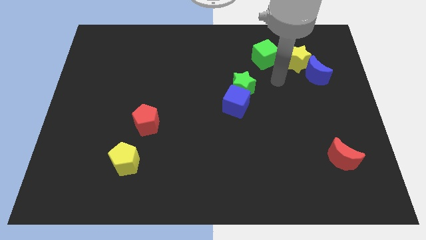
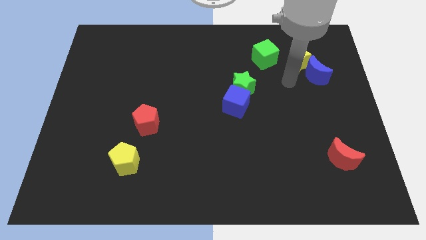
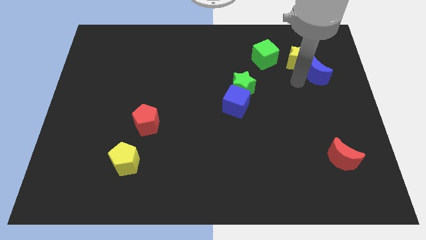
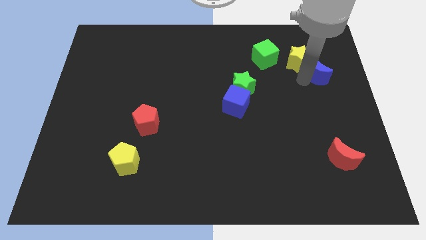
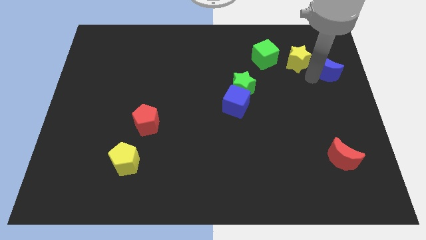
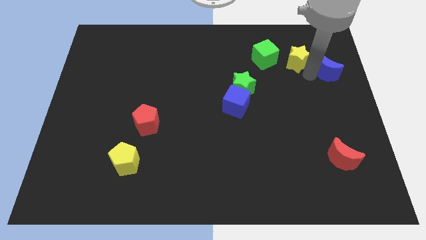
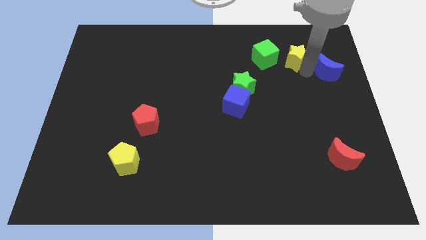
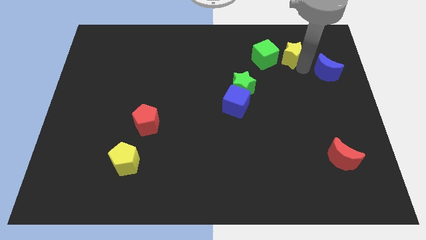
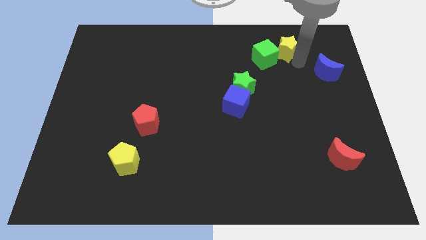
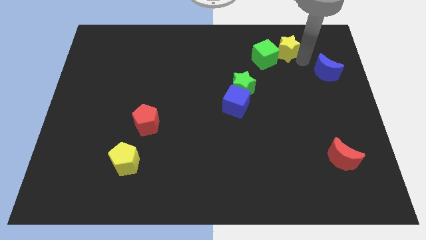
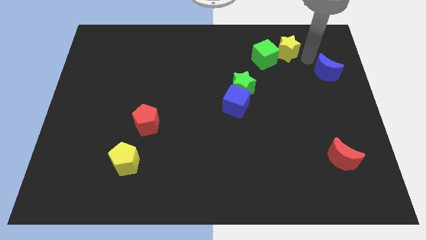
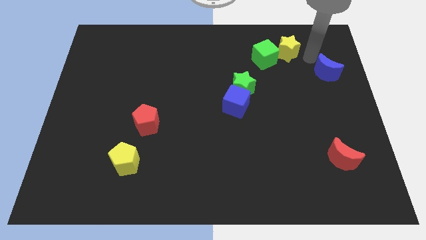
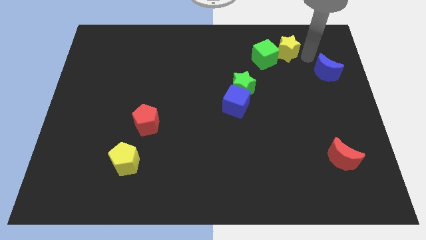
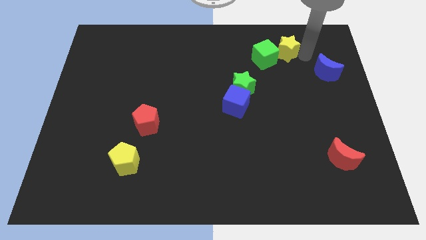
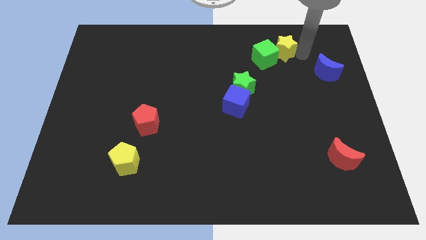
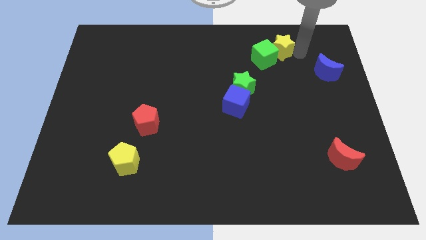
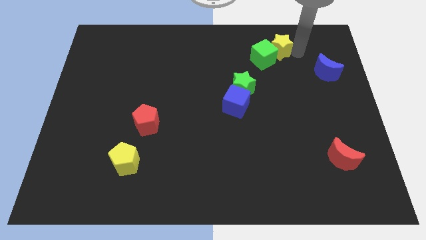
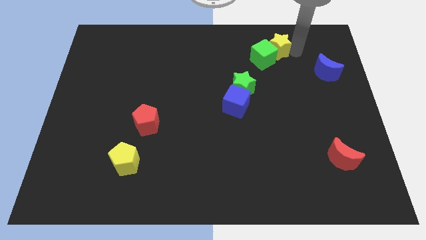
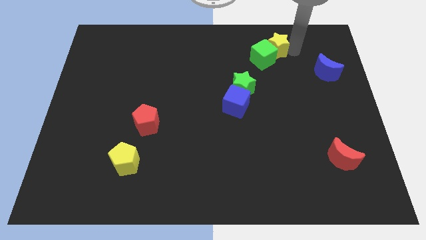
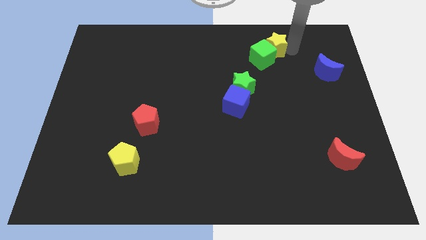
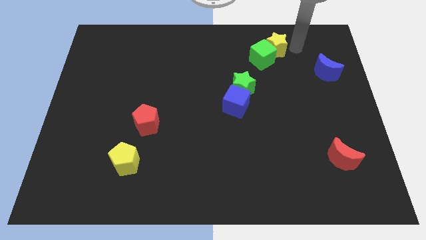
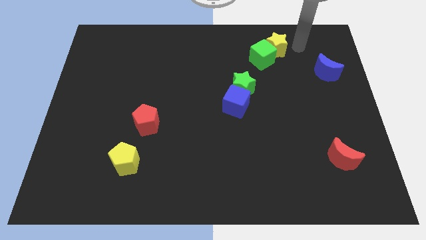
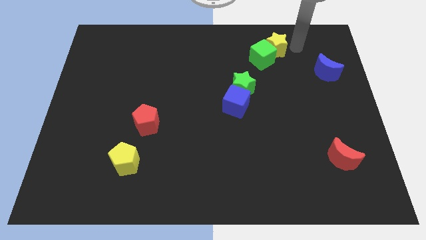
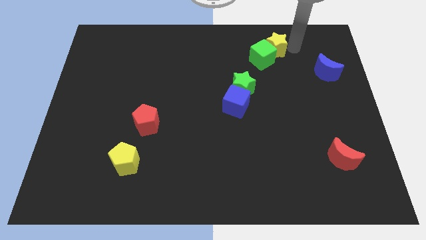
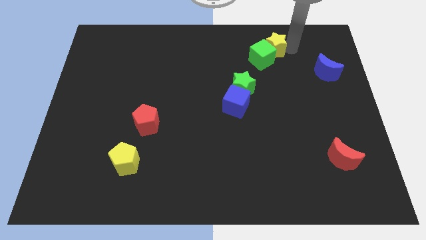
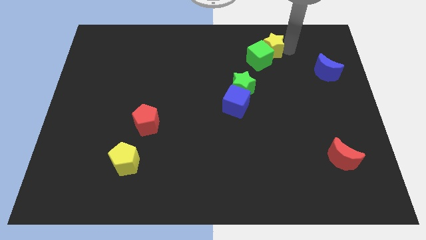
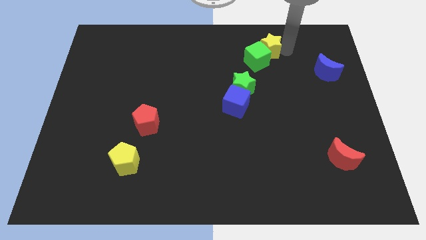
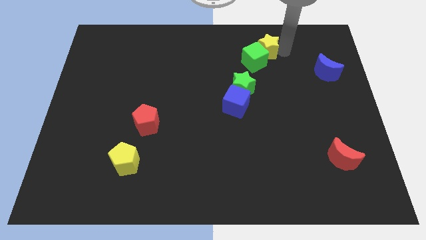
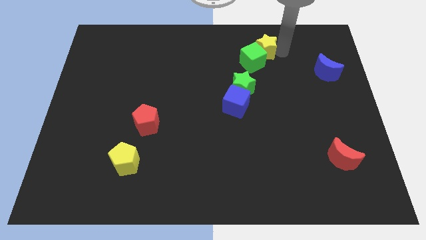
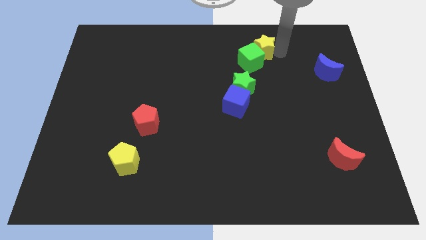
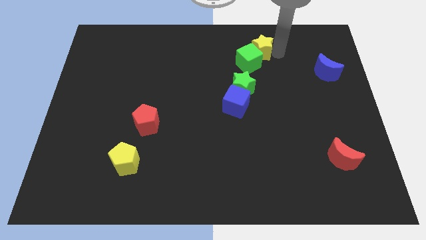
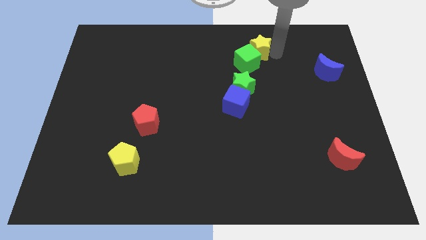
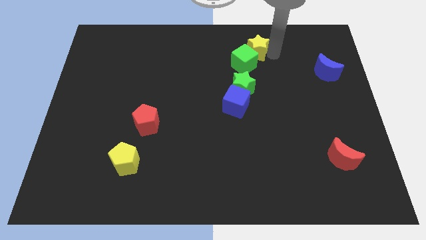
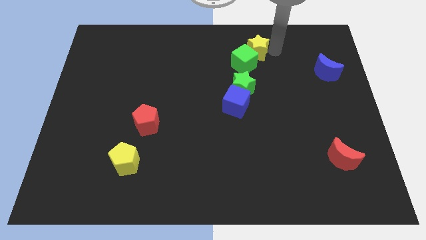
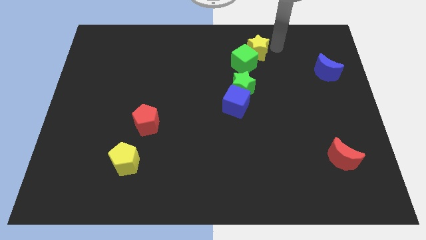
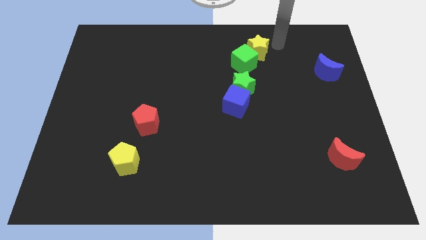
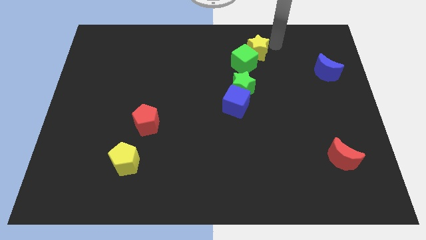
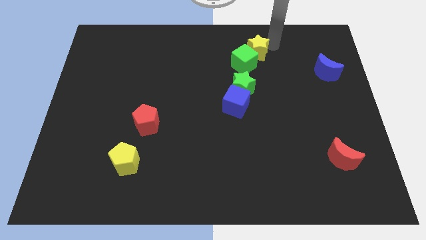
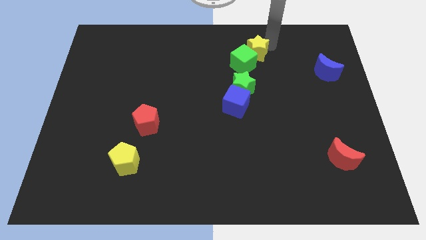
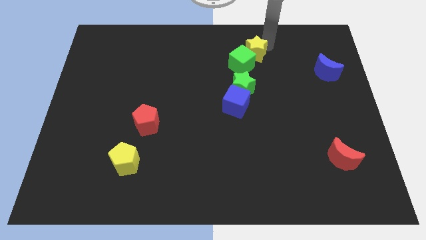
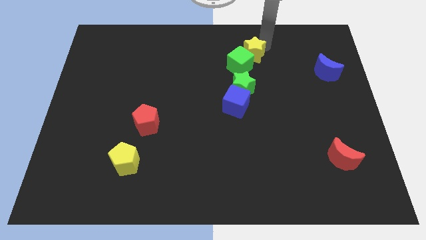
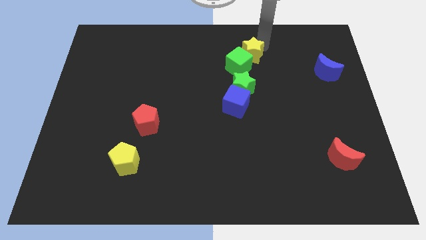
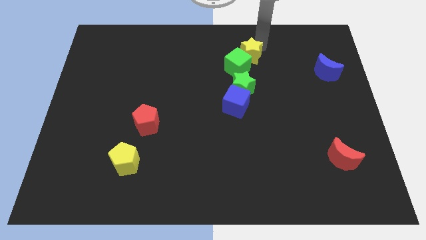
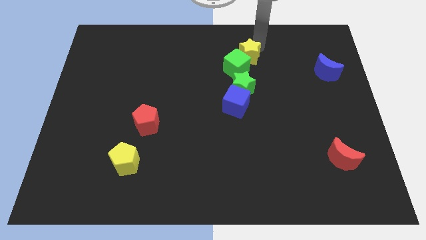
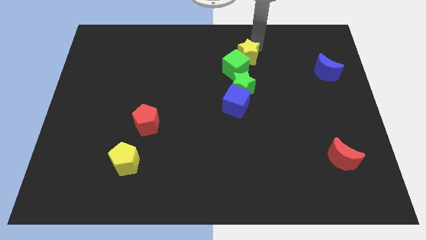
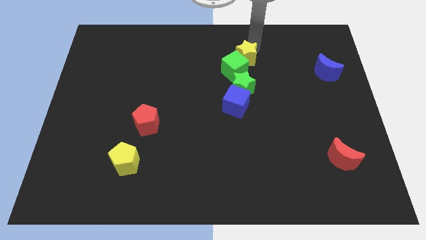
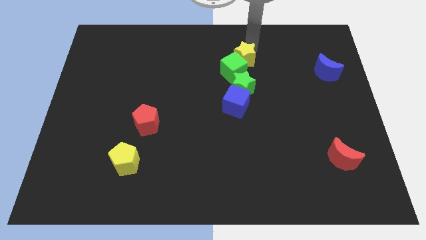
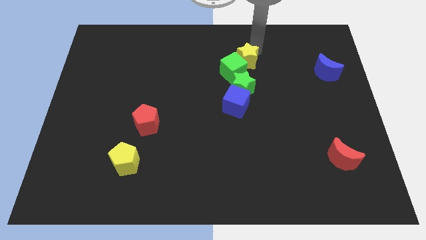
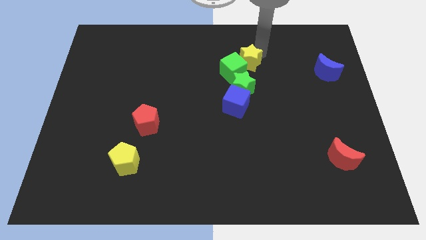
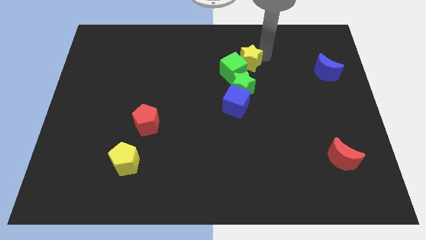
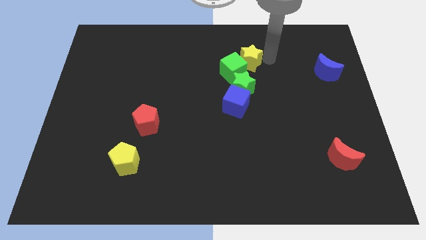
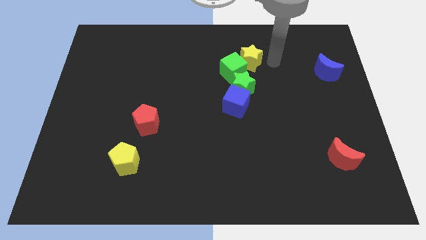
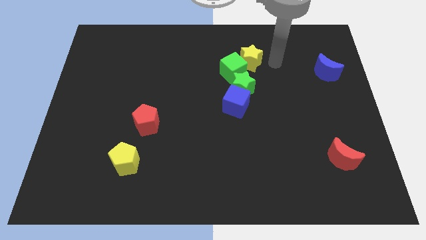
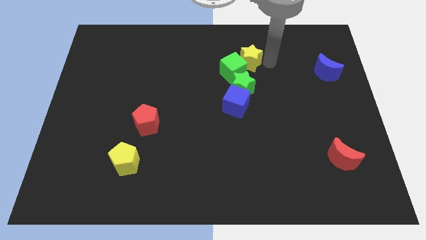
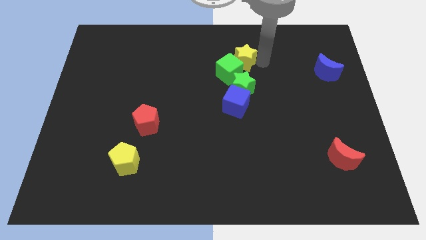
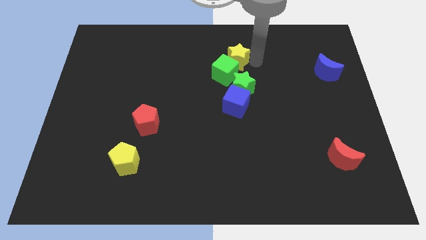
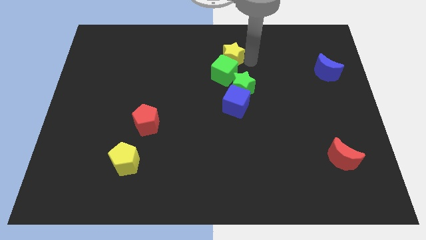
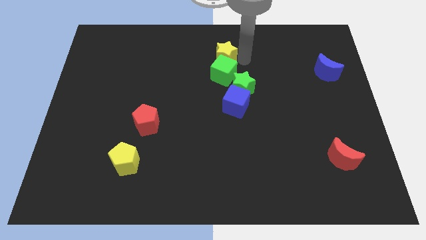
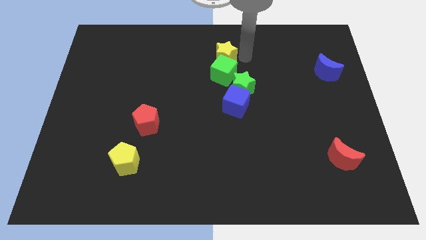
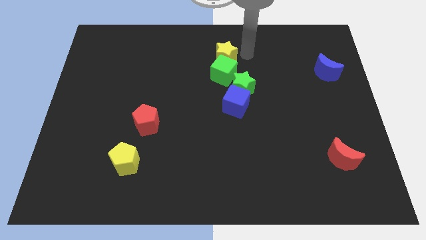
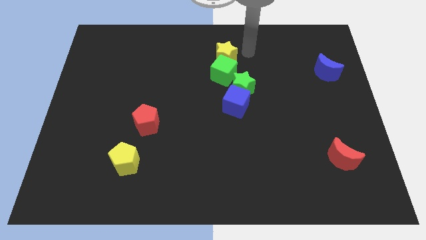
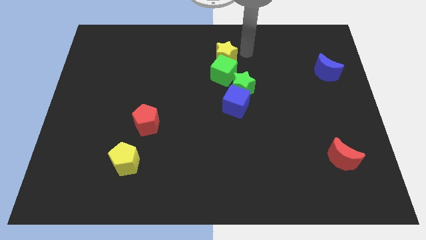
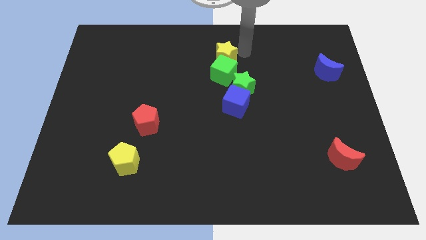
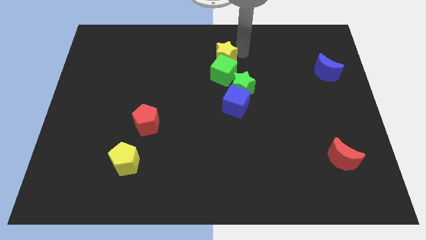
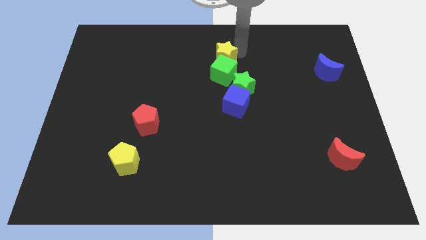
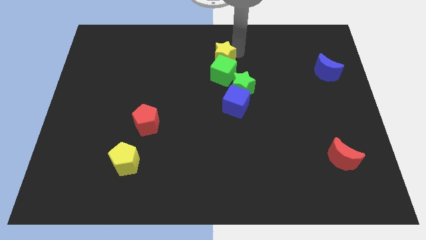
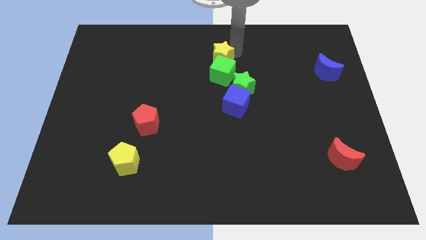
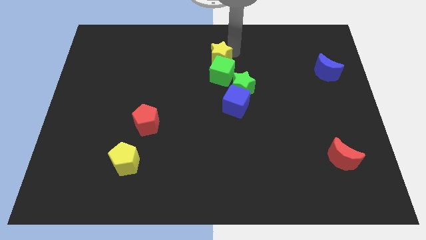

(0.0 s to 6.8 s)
slide the yellow star to the left

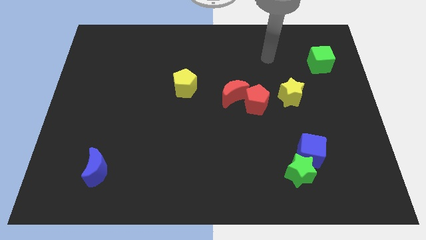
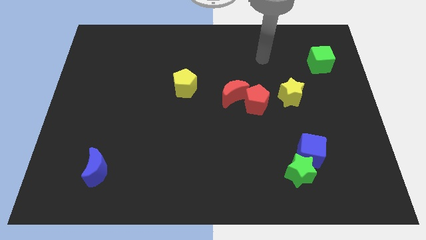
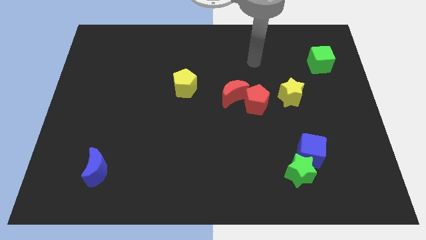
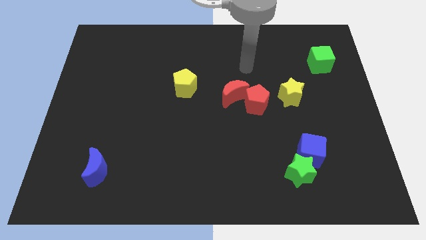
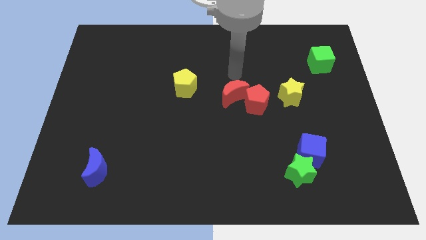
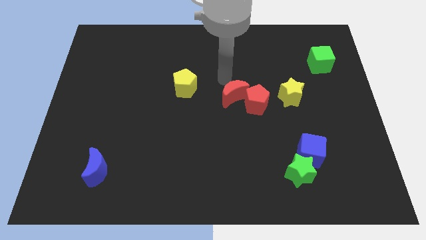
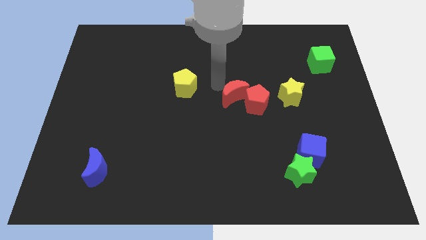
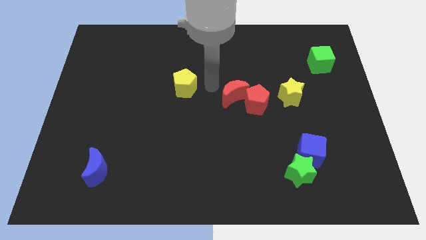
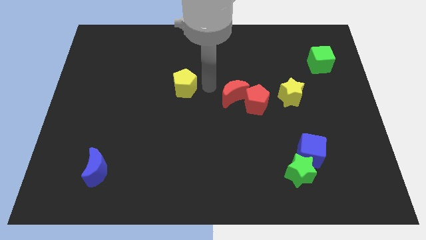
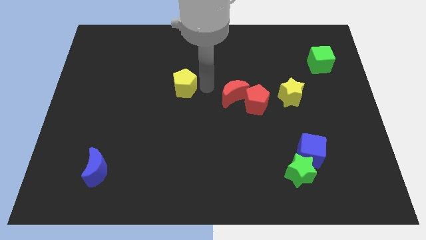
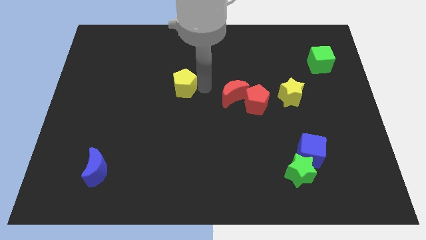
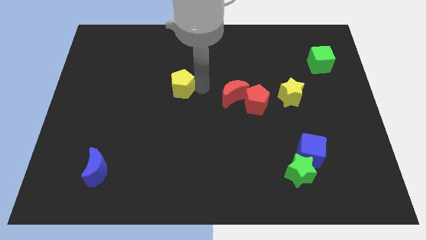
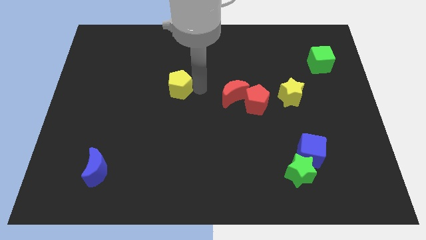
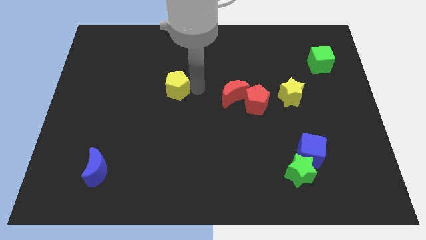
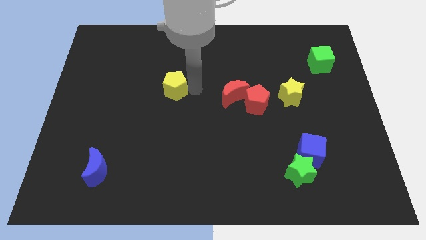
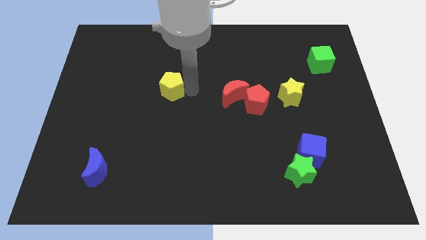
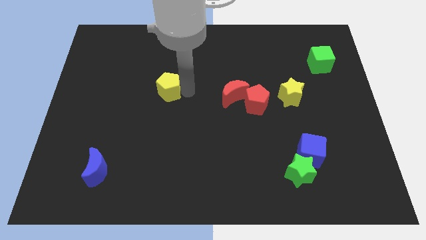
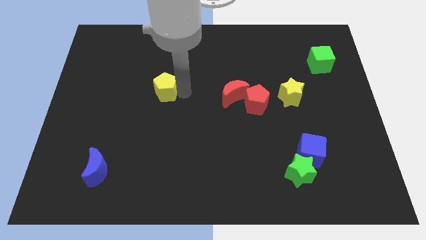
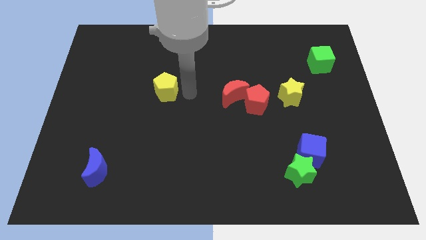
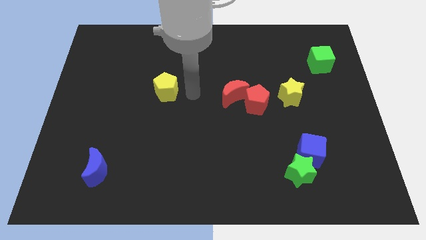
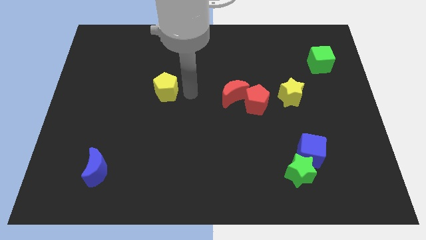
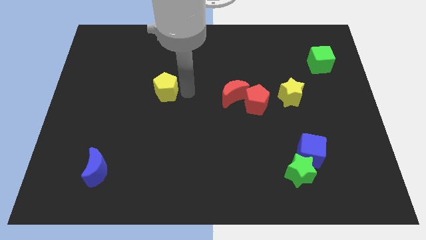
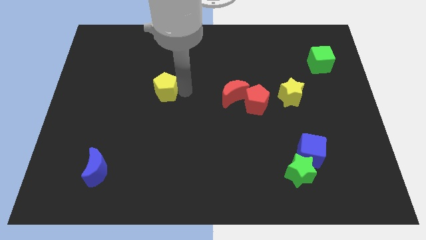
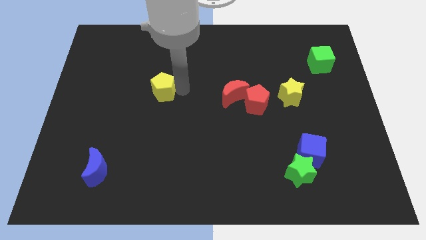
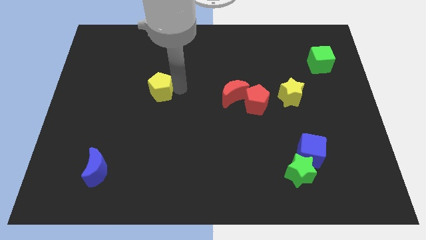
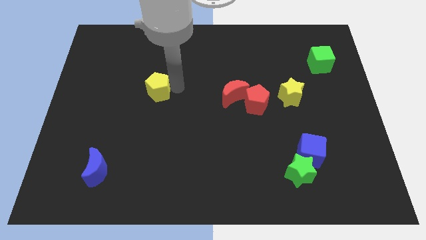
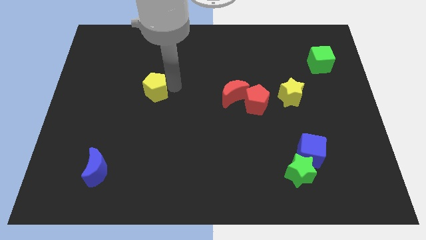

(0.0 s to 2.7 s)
push the yellow pentagon to the left slightly
